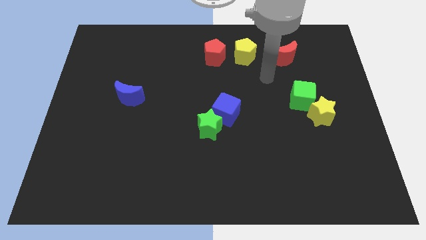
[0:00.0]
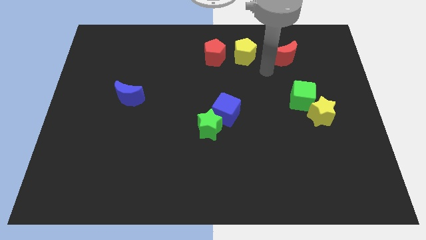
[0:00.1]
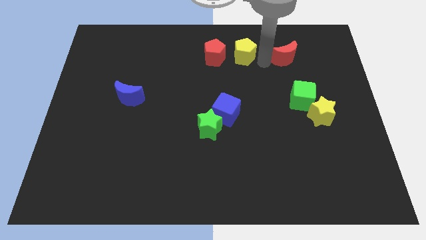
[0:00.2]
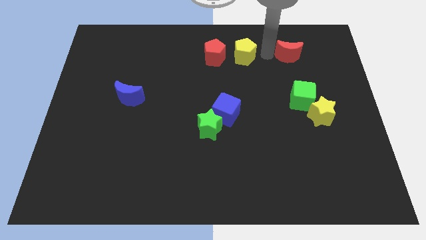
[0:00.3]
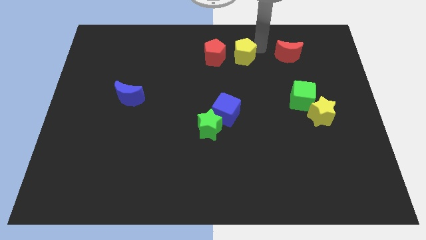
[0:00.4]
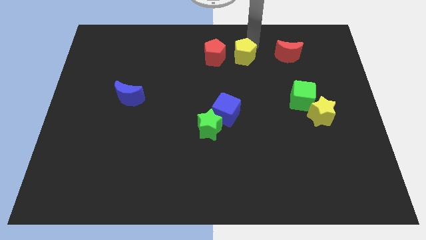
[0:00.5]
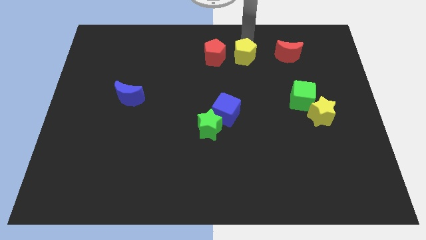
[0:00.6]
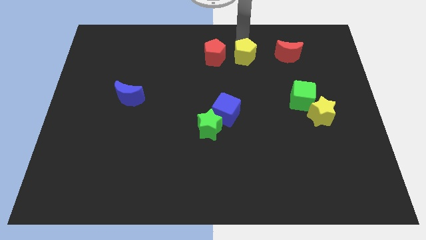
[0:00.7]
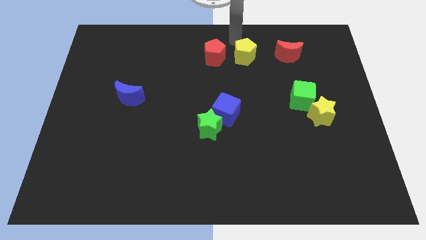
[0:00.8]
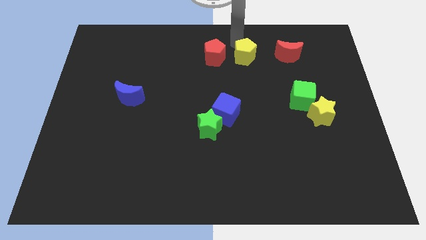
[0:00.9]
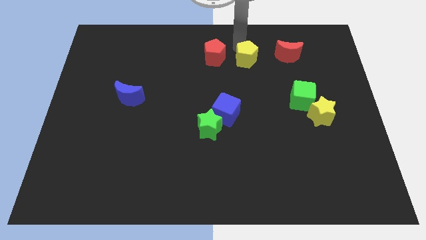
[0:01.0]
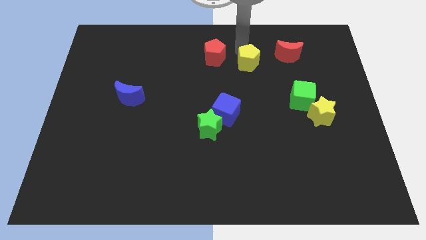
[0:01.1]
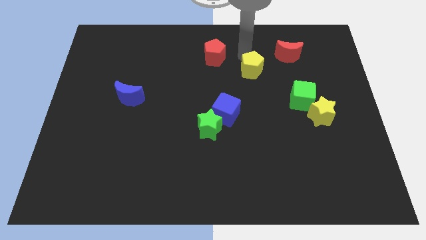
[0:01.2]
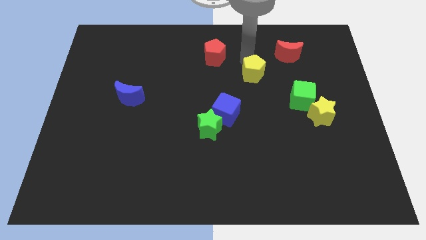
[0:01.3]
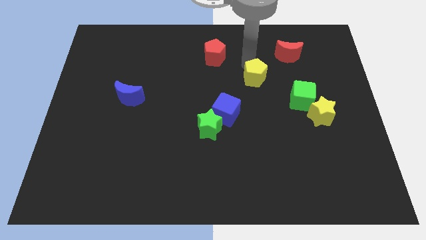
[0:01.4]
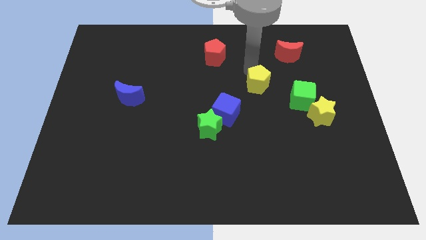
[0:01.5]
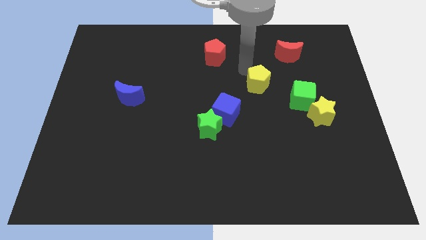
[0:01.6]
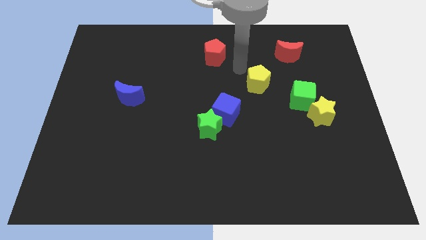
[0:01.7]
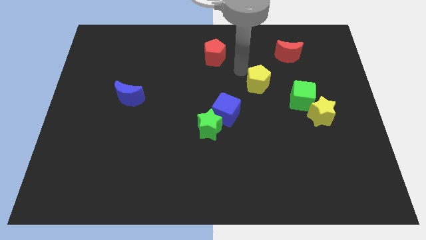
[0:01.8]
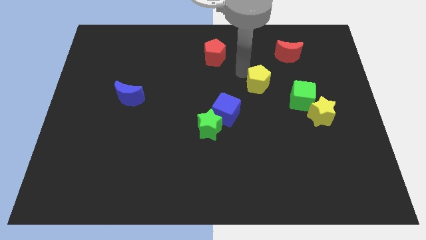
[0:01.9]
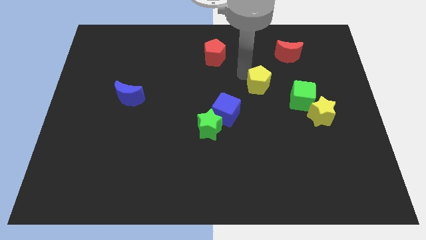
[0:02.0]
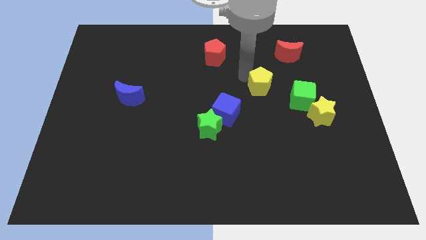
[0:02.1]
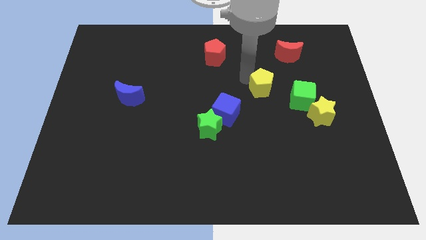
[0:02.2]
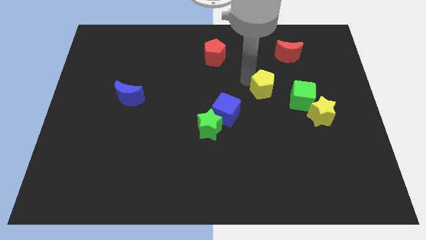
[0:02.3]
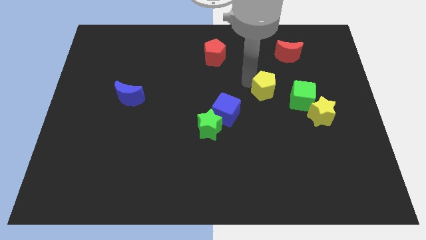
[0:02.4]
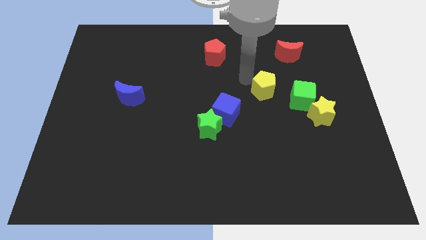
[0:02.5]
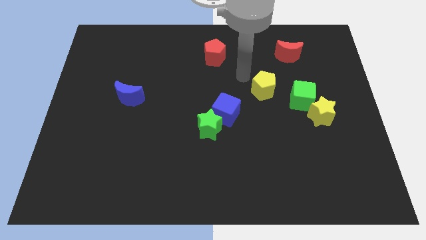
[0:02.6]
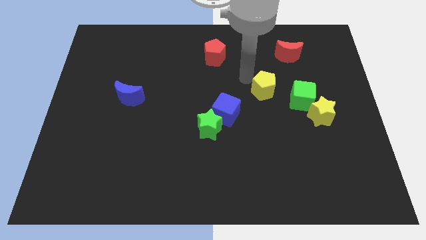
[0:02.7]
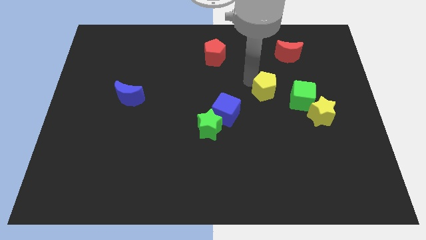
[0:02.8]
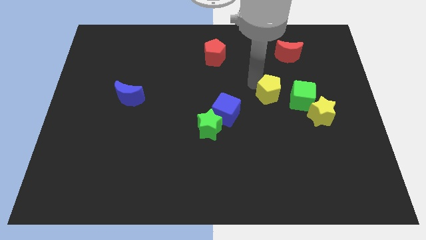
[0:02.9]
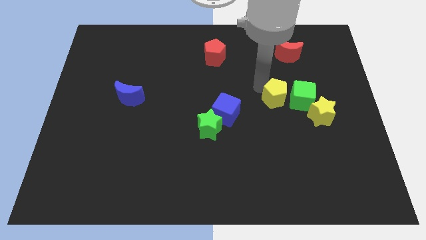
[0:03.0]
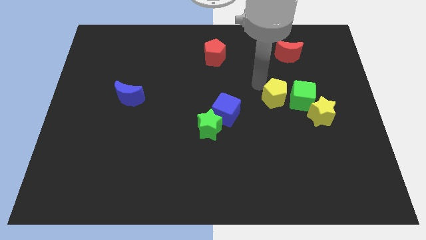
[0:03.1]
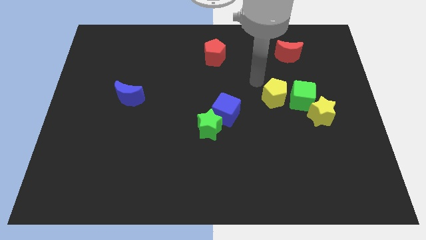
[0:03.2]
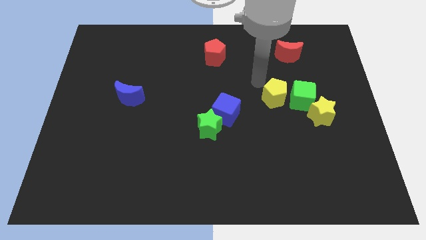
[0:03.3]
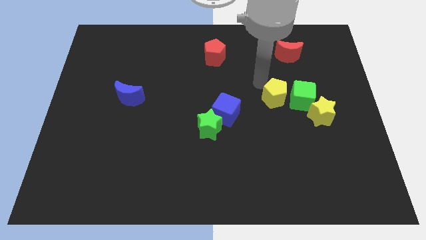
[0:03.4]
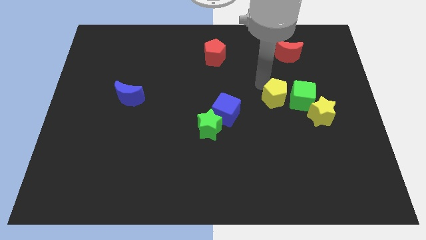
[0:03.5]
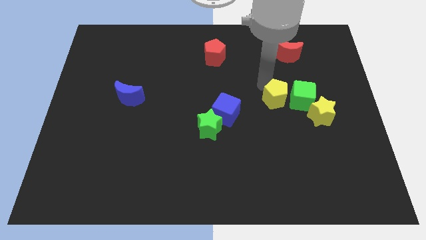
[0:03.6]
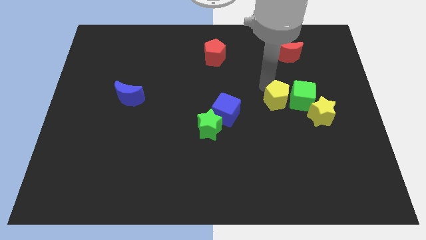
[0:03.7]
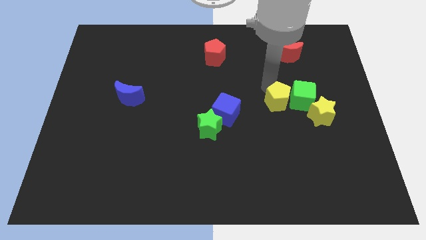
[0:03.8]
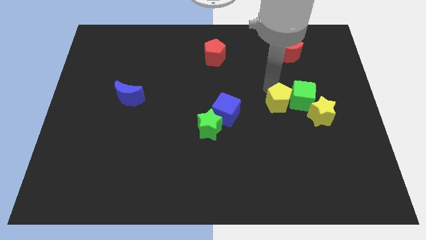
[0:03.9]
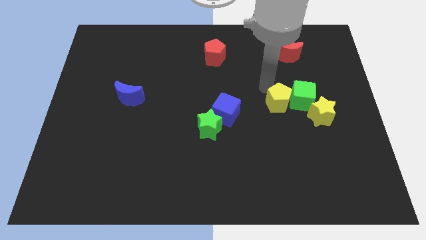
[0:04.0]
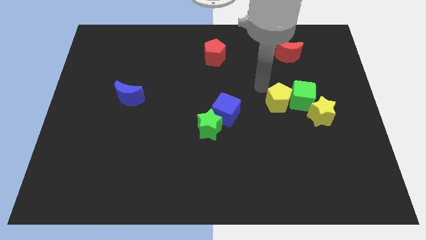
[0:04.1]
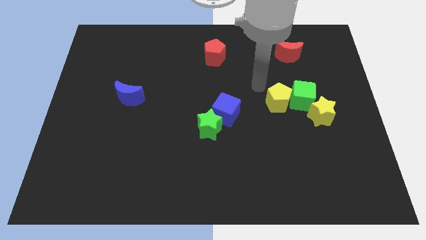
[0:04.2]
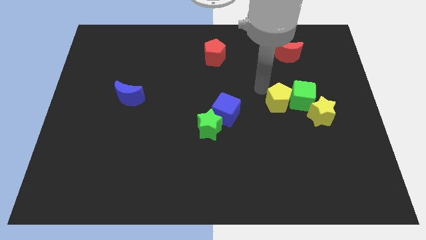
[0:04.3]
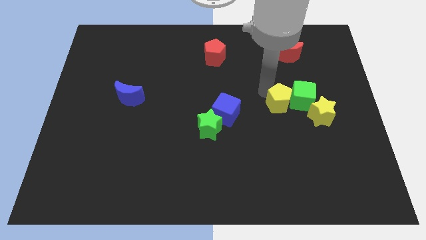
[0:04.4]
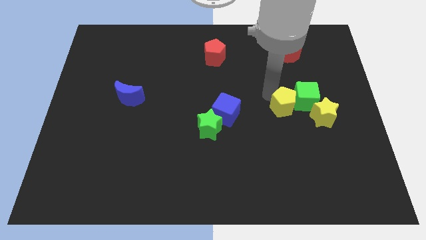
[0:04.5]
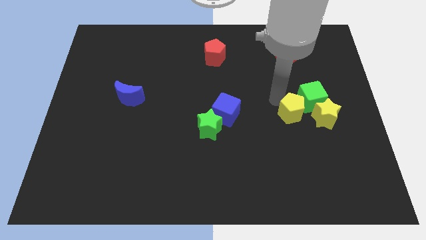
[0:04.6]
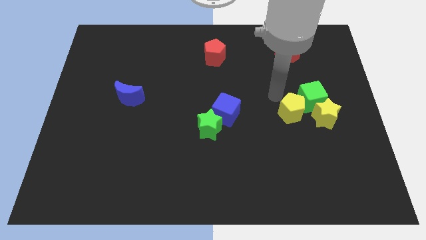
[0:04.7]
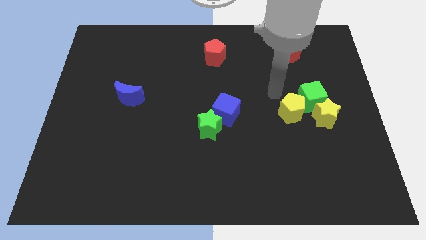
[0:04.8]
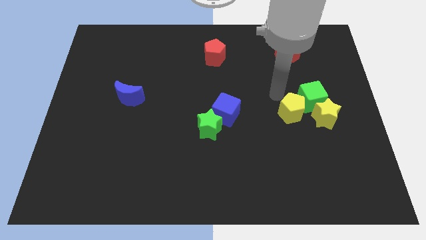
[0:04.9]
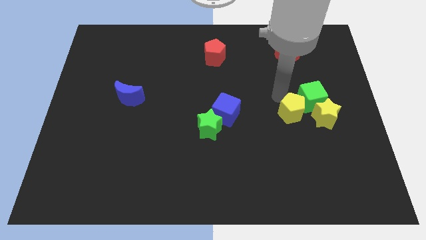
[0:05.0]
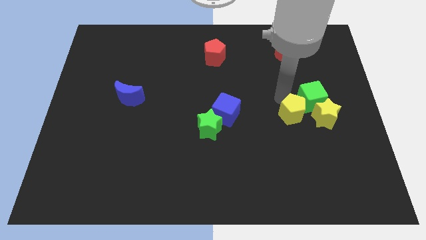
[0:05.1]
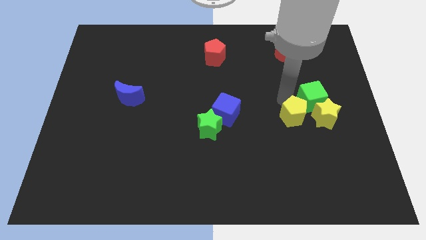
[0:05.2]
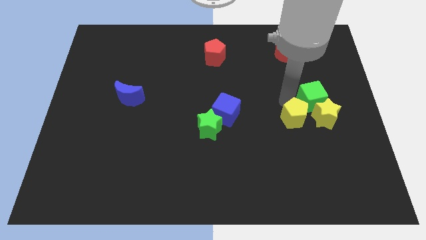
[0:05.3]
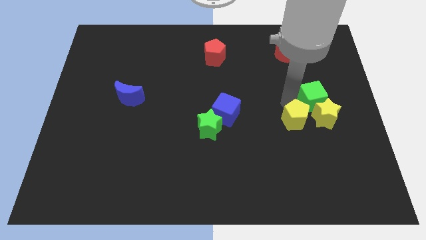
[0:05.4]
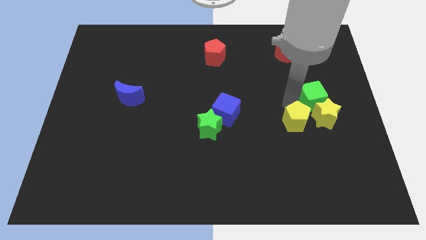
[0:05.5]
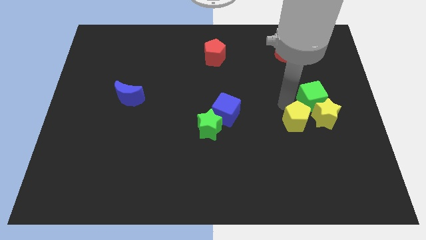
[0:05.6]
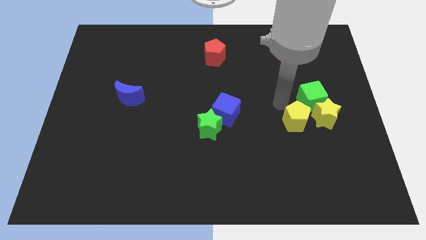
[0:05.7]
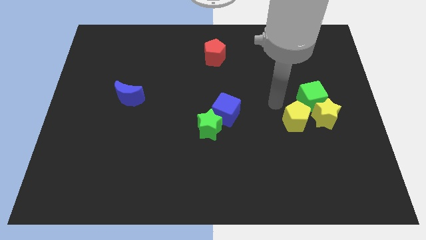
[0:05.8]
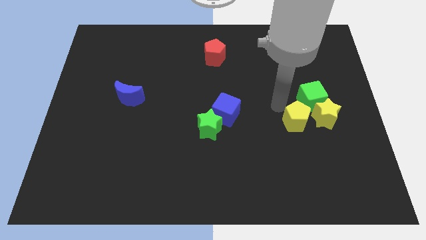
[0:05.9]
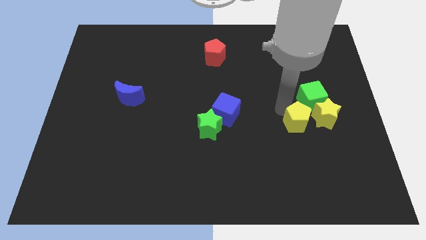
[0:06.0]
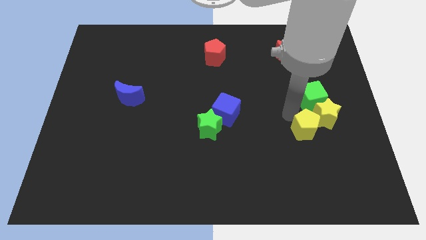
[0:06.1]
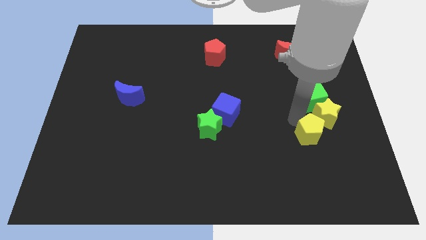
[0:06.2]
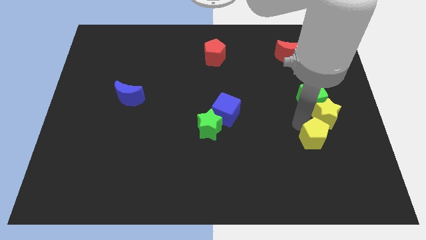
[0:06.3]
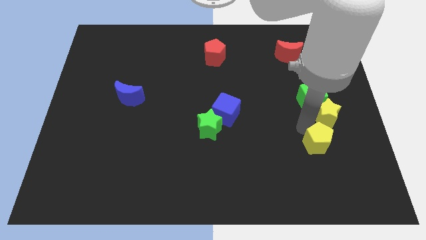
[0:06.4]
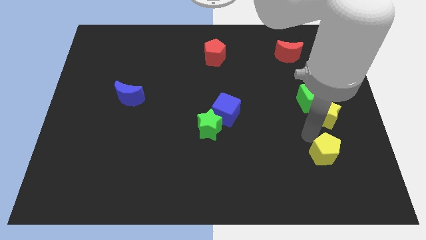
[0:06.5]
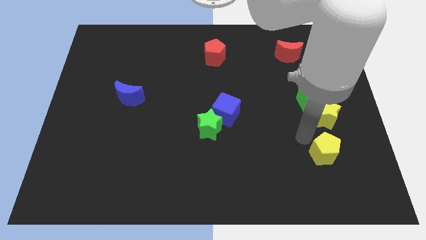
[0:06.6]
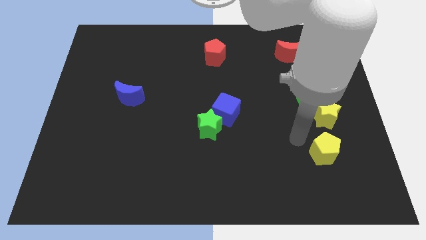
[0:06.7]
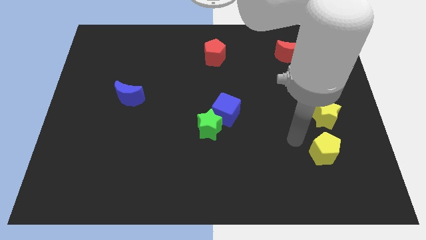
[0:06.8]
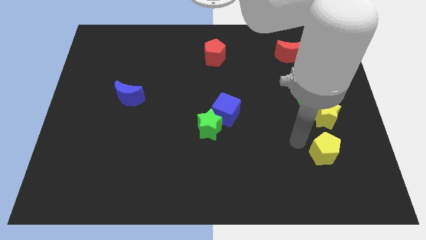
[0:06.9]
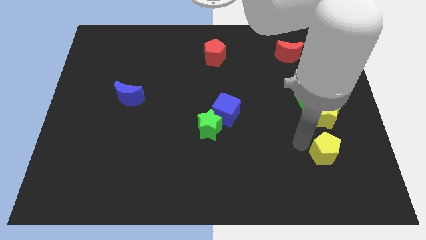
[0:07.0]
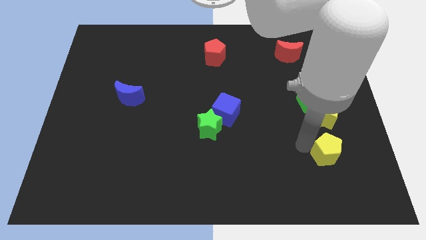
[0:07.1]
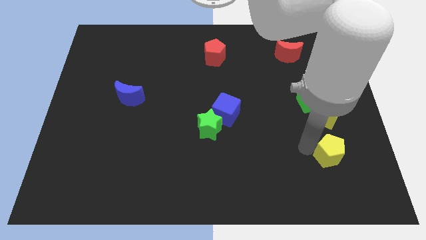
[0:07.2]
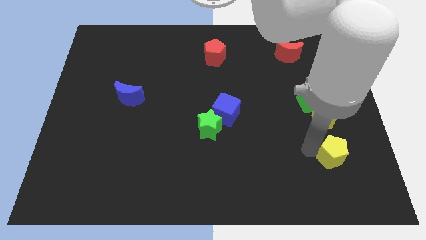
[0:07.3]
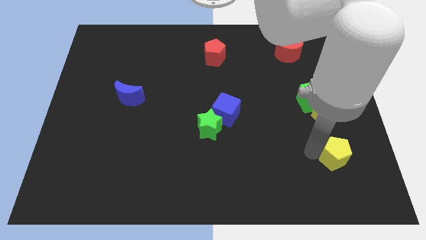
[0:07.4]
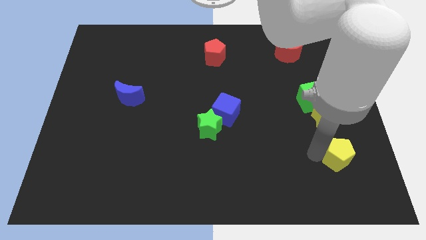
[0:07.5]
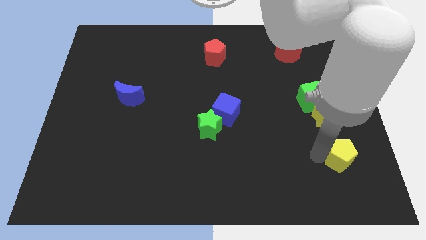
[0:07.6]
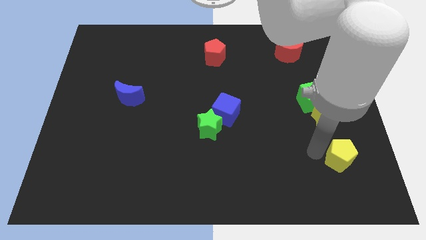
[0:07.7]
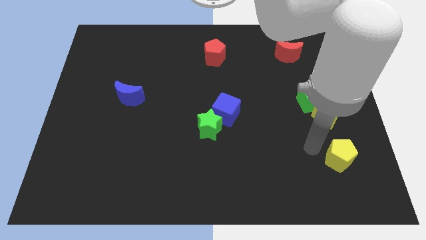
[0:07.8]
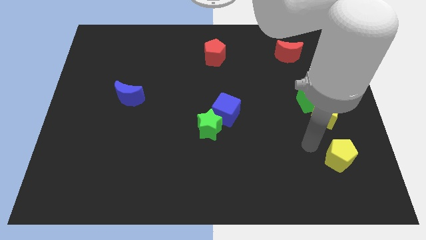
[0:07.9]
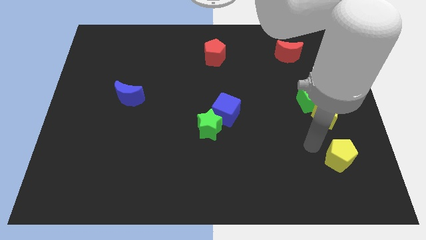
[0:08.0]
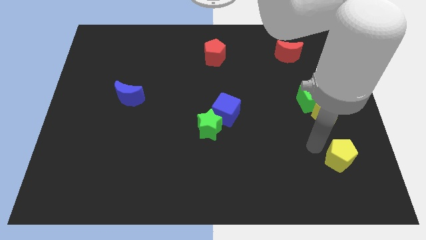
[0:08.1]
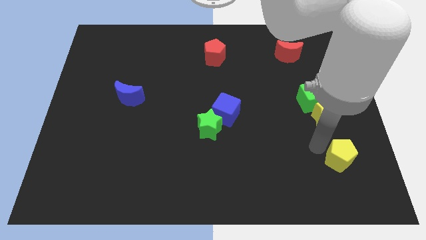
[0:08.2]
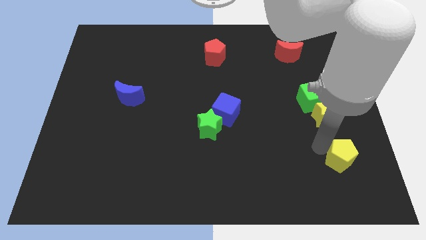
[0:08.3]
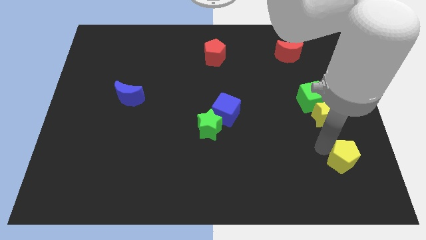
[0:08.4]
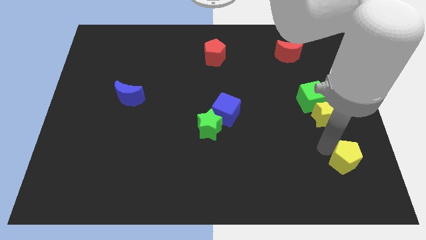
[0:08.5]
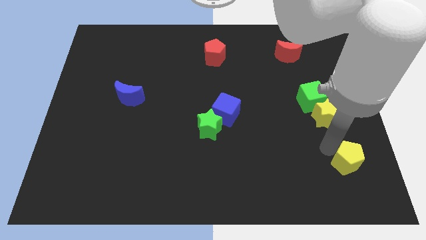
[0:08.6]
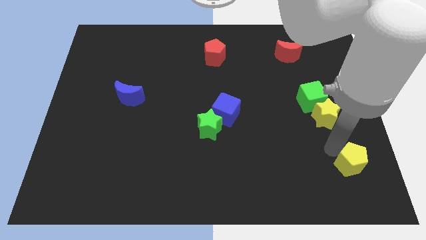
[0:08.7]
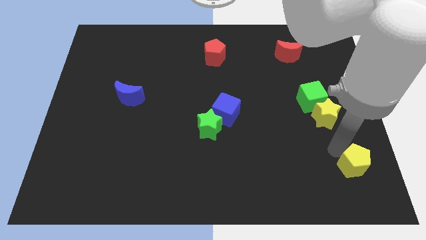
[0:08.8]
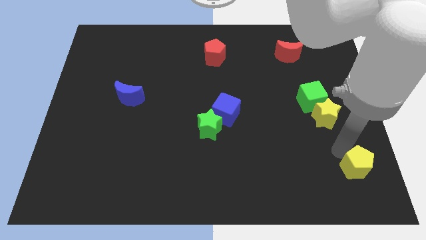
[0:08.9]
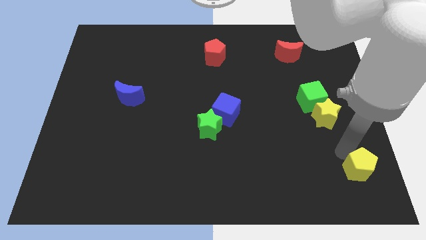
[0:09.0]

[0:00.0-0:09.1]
push the yellow pentagon to the bottom right
